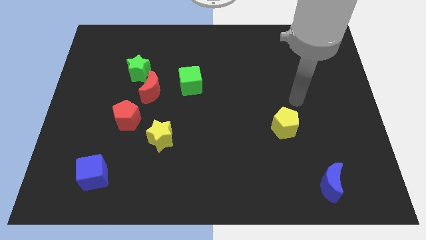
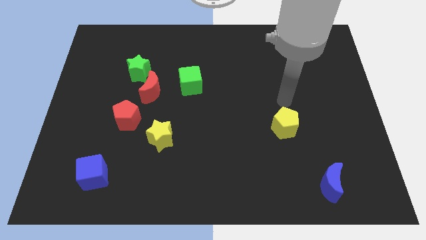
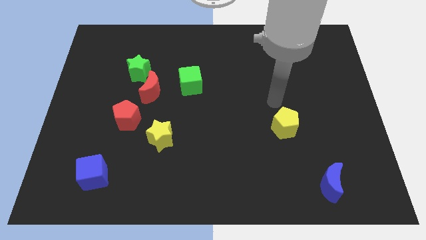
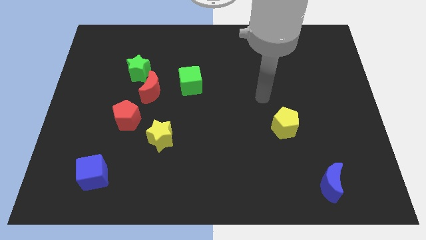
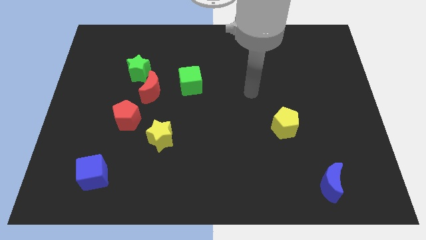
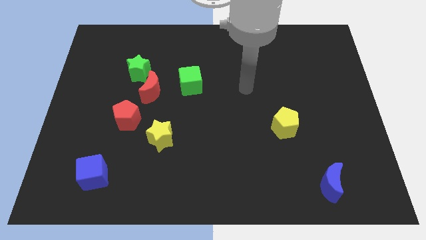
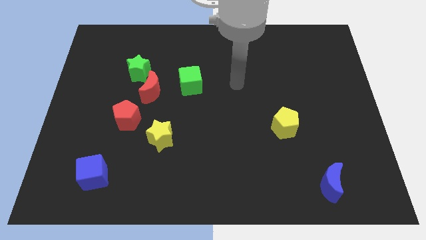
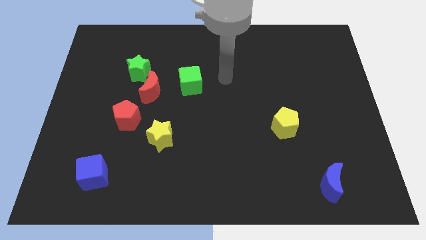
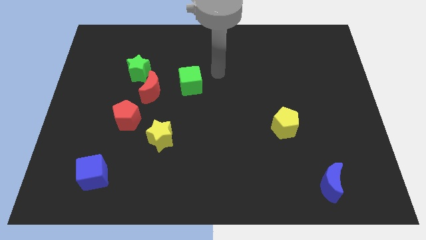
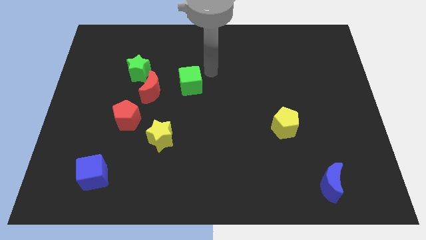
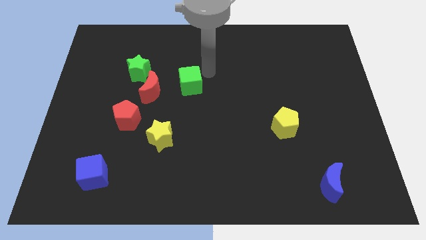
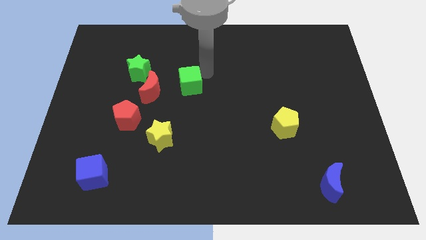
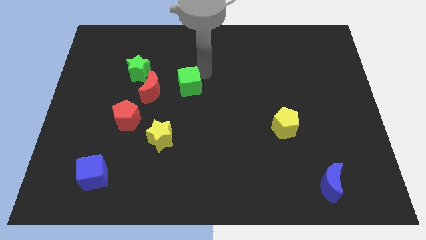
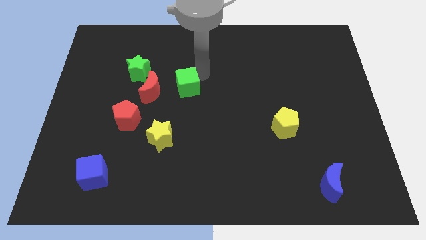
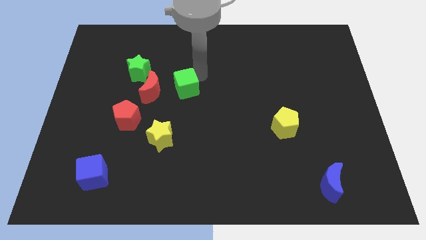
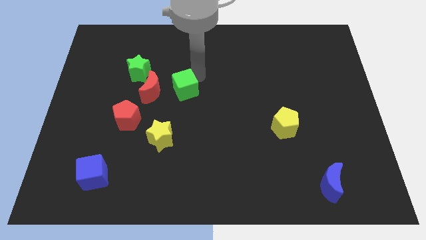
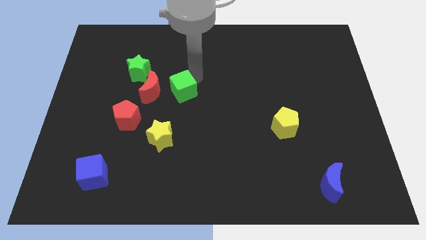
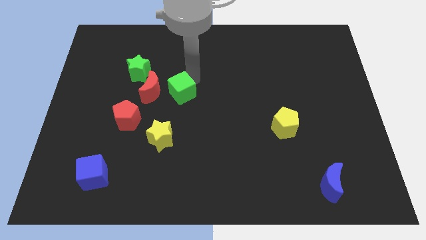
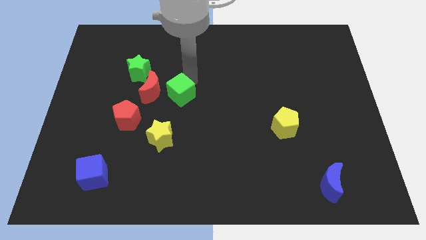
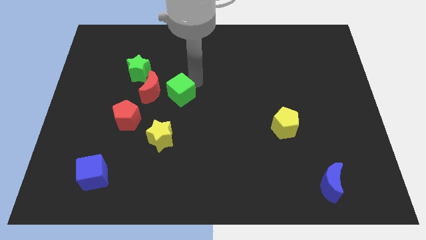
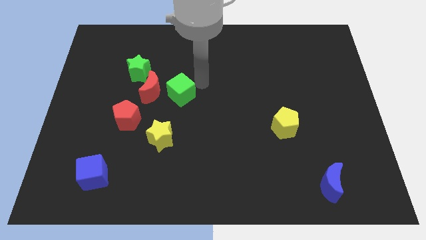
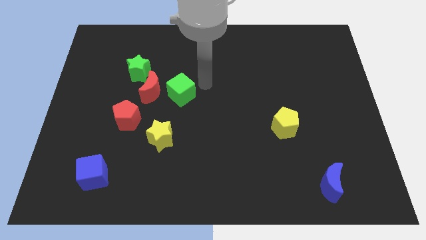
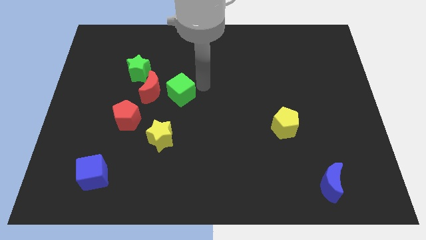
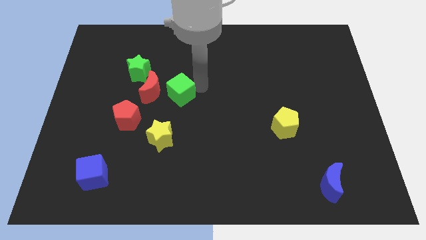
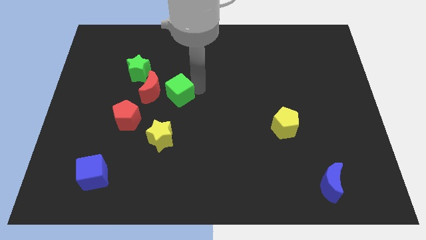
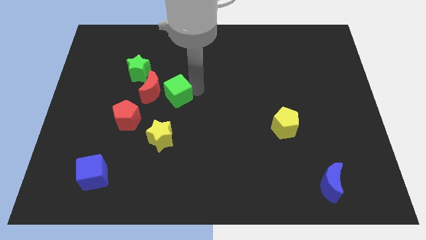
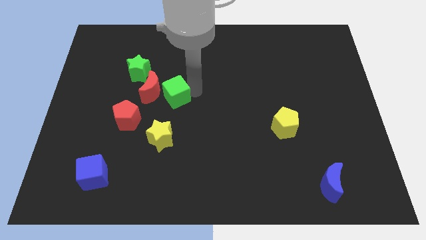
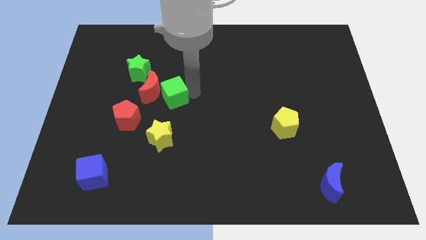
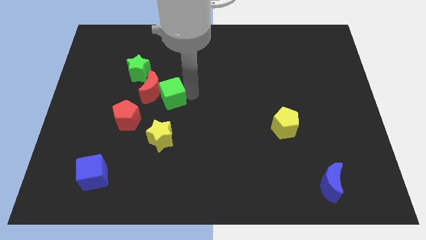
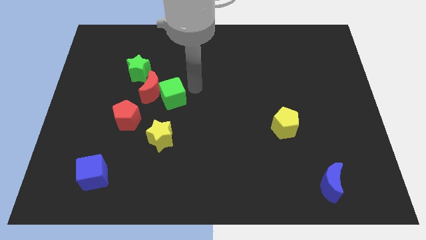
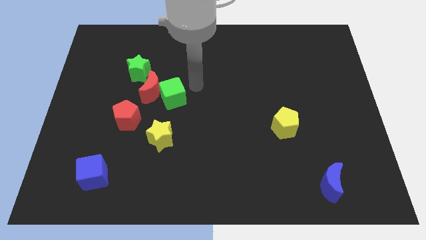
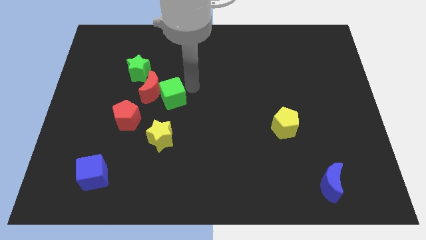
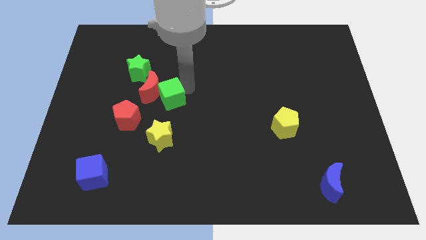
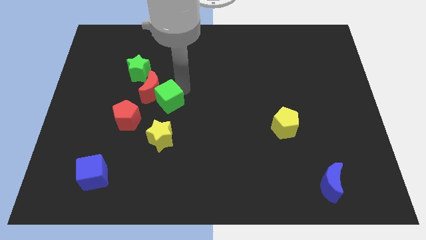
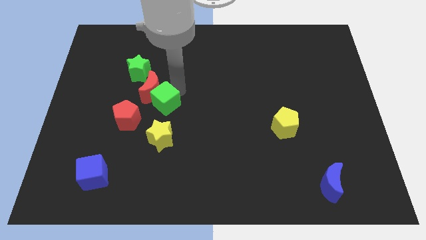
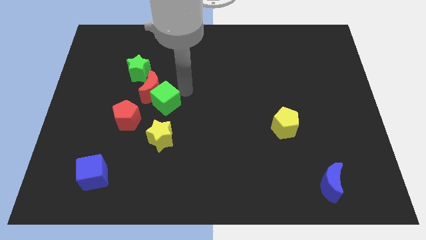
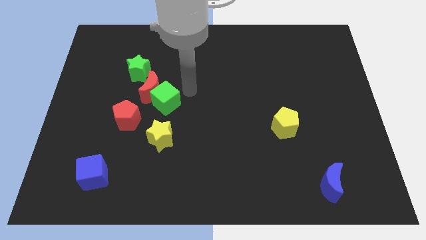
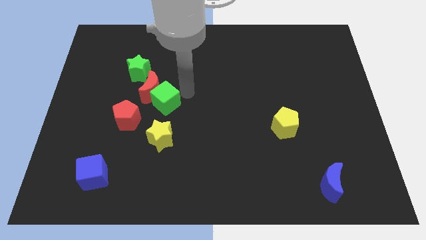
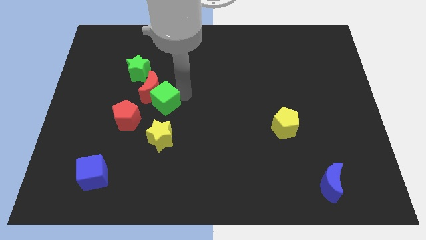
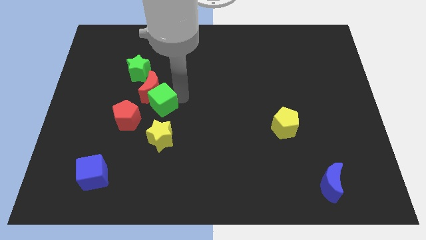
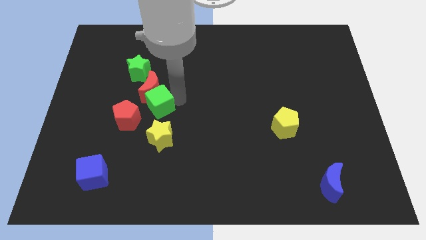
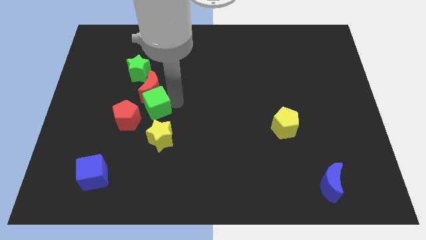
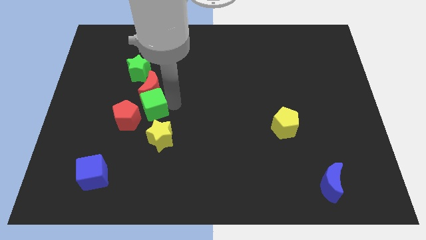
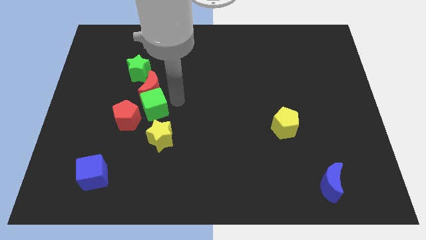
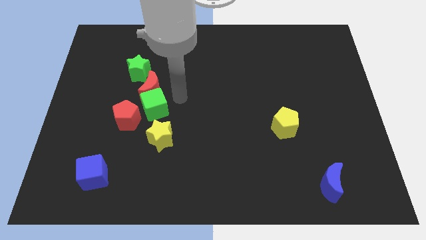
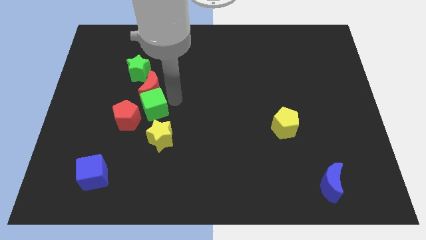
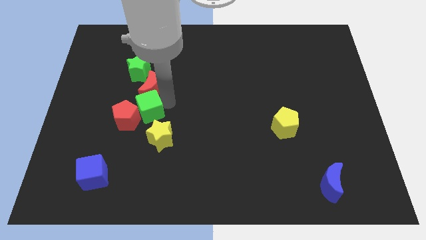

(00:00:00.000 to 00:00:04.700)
slide the green cube to the red pentagon

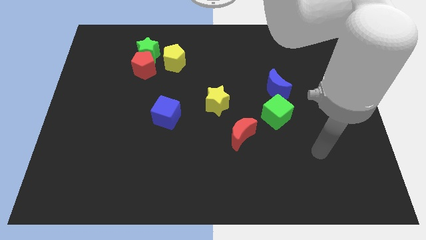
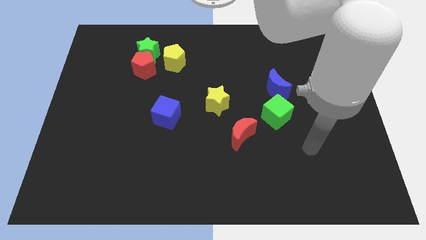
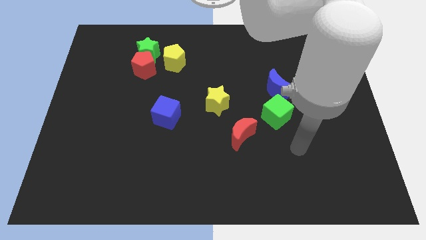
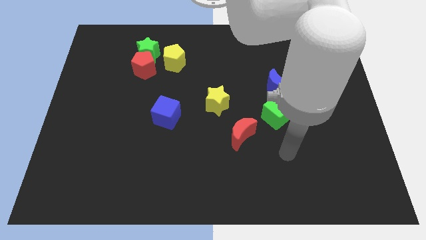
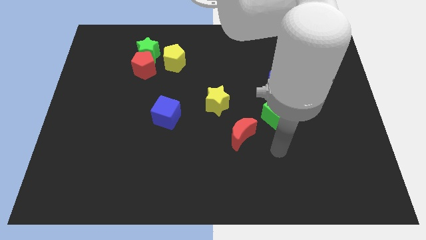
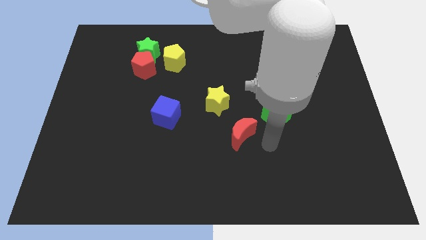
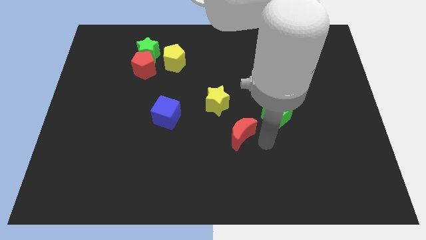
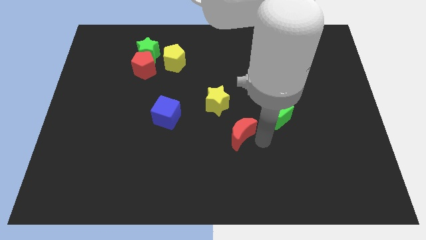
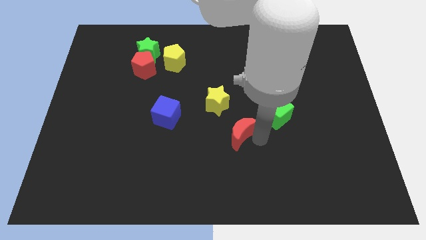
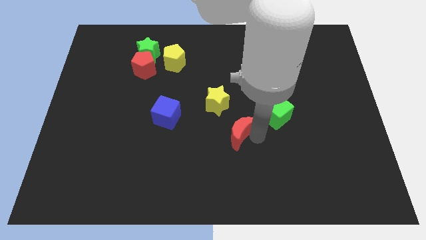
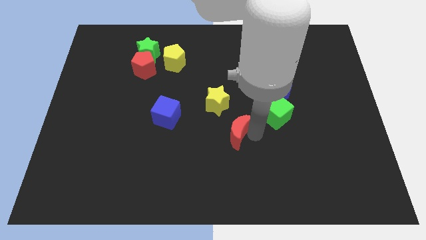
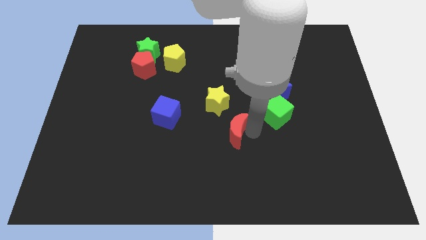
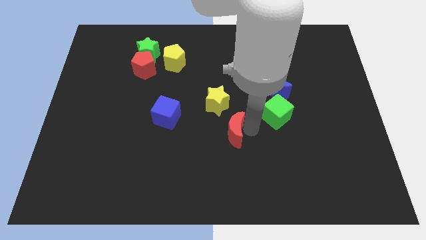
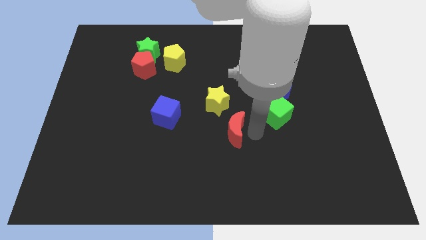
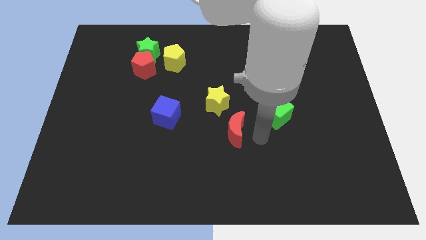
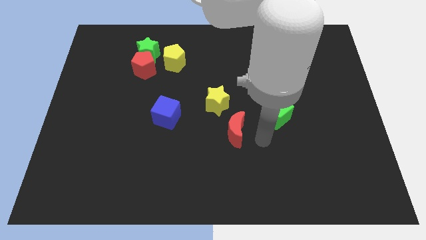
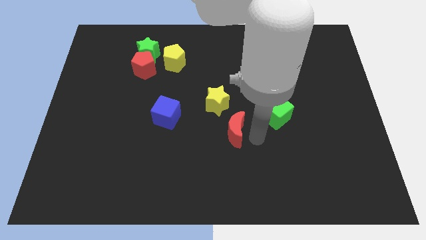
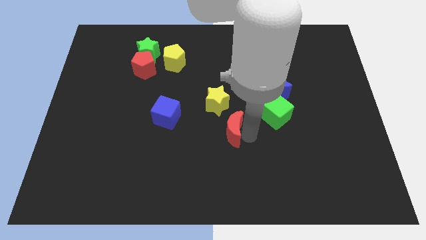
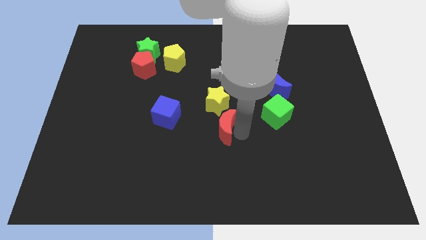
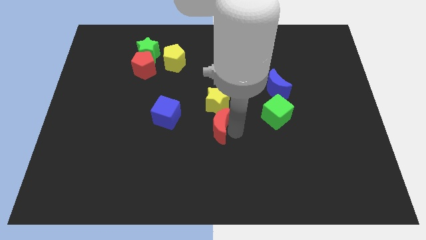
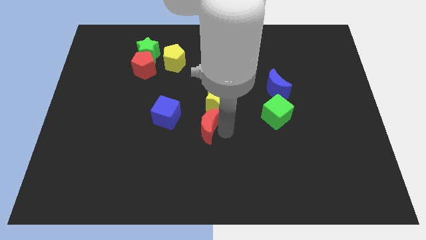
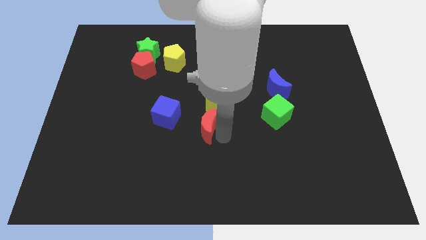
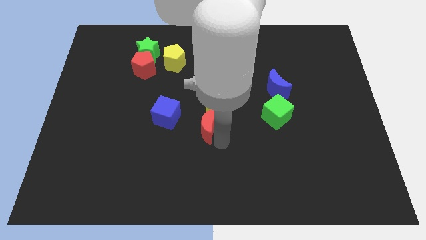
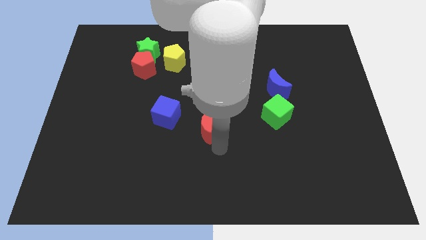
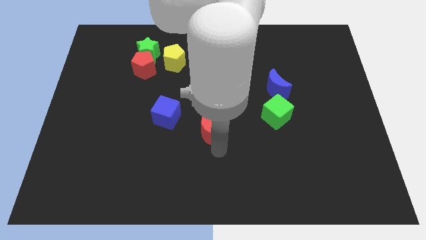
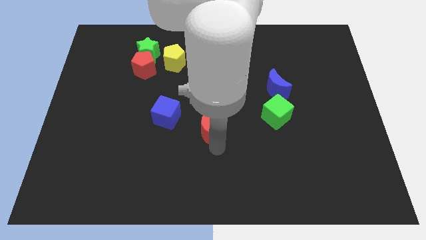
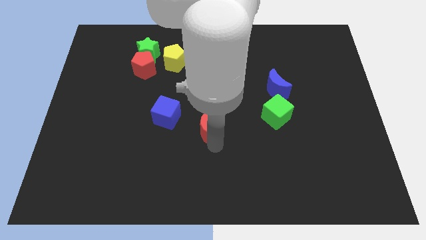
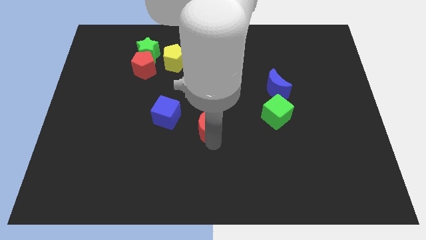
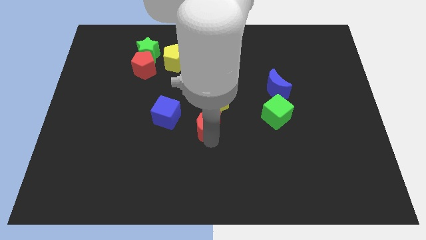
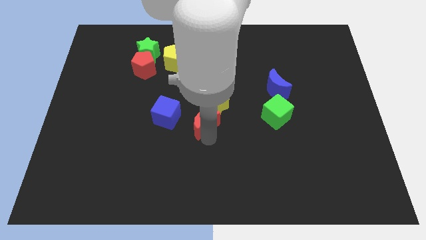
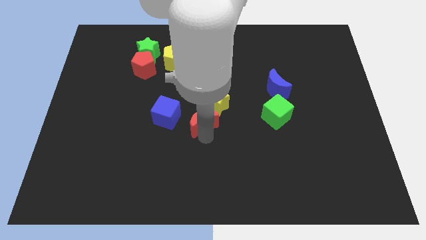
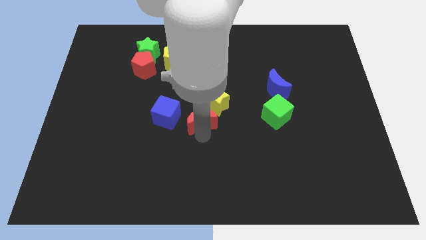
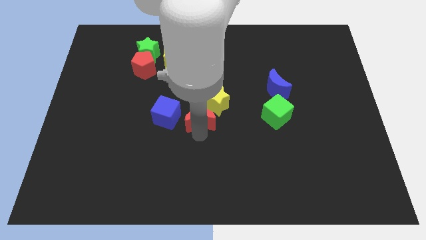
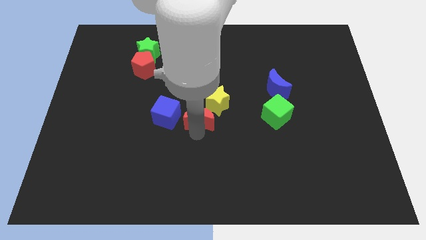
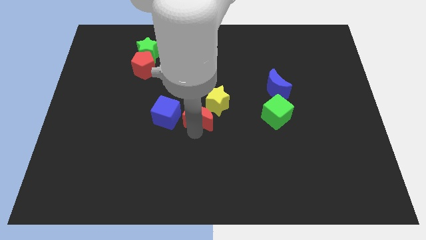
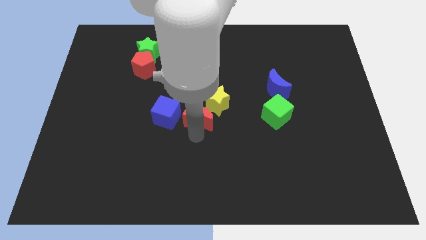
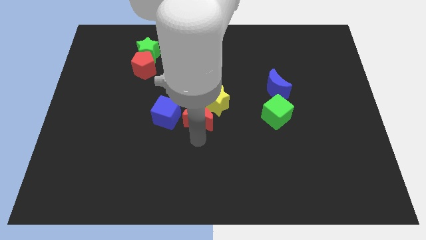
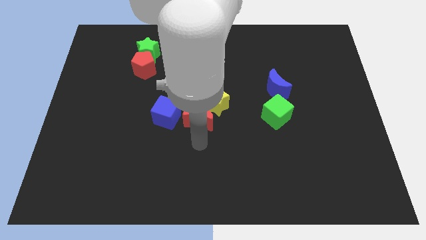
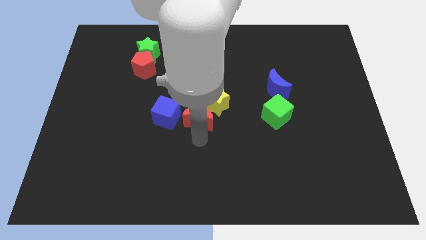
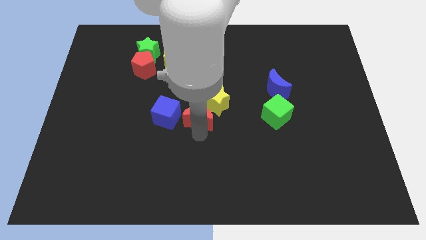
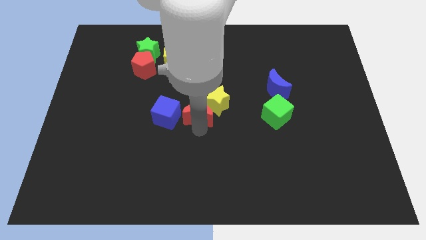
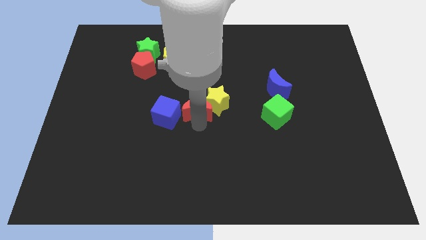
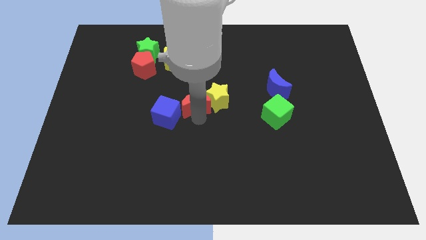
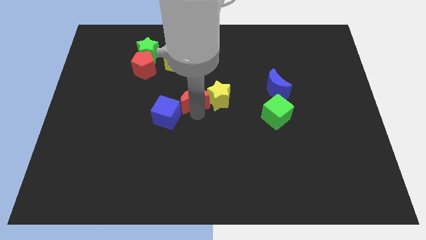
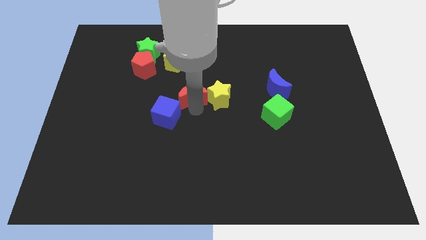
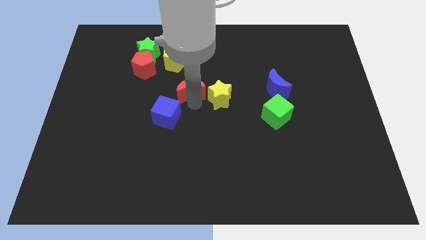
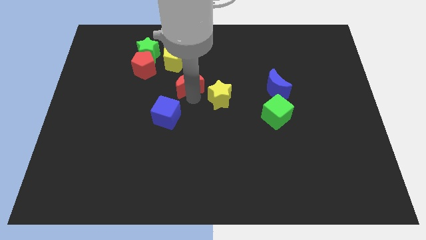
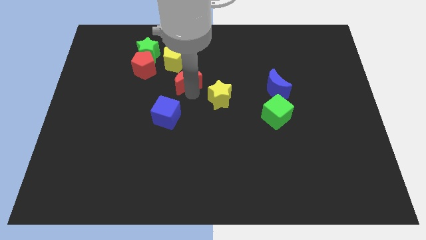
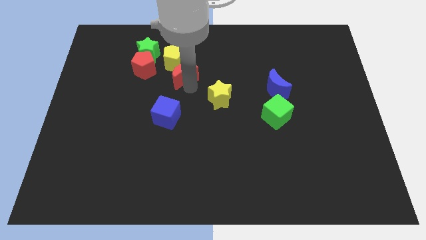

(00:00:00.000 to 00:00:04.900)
slide the red moon to the yellow pentagon
